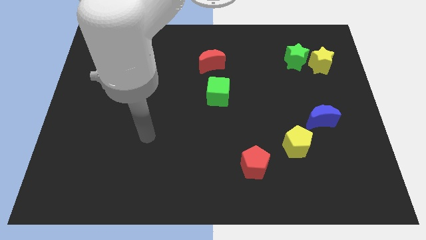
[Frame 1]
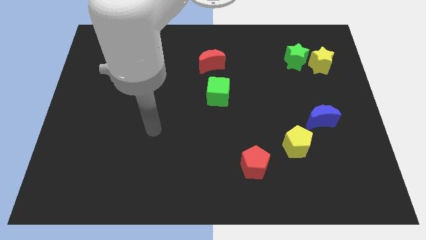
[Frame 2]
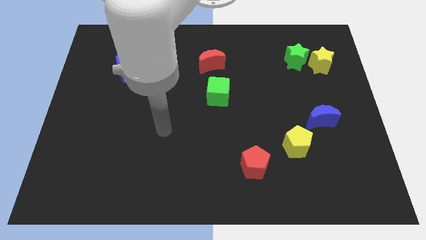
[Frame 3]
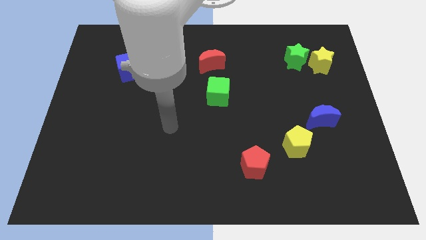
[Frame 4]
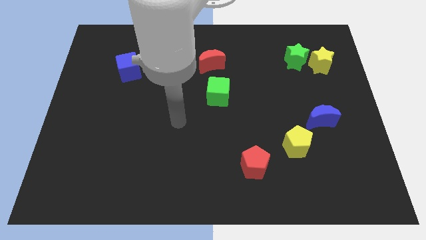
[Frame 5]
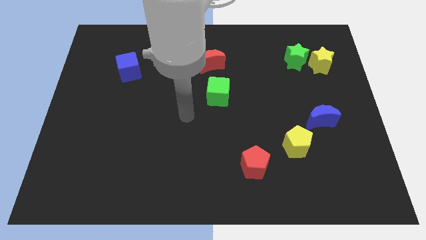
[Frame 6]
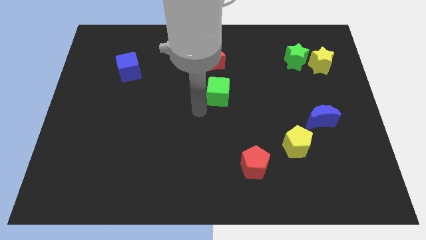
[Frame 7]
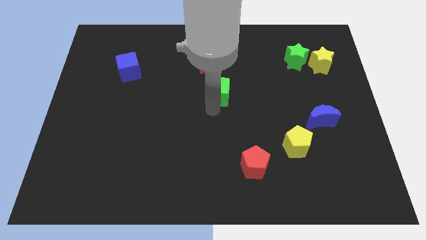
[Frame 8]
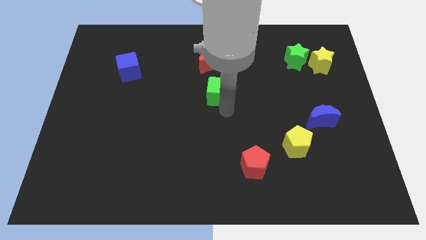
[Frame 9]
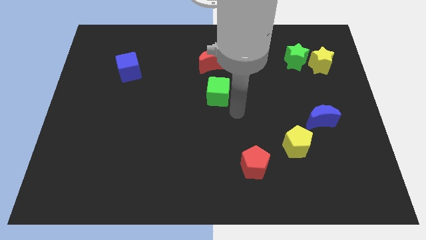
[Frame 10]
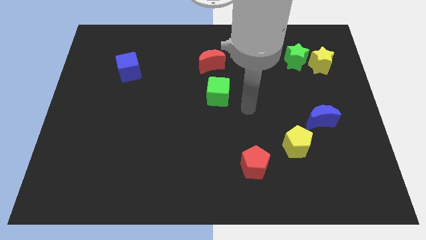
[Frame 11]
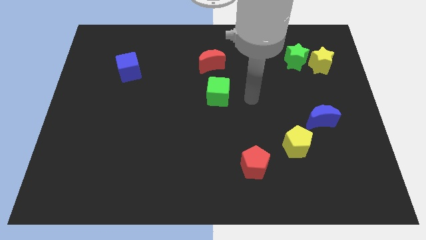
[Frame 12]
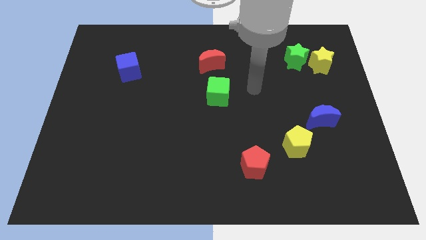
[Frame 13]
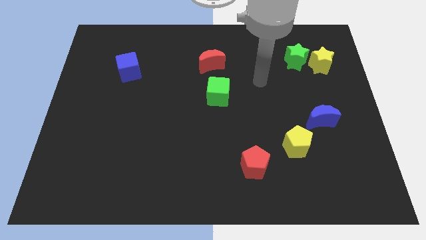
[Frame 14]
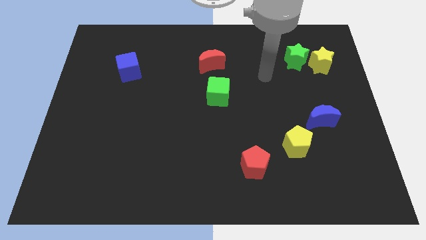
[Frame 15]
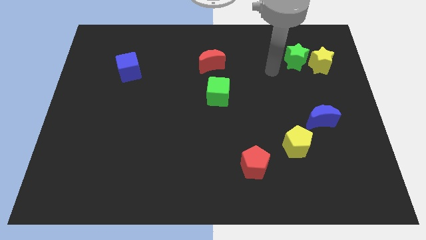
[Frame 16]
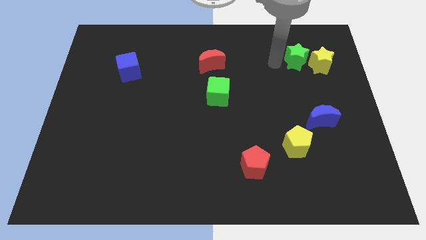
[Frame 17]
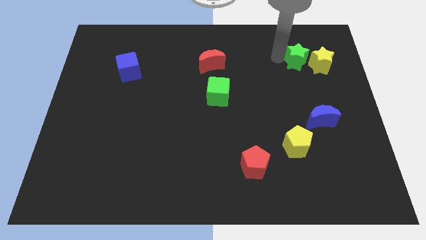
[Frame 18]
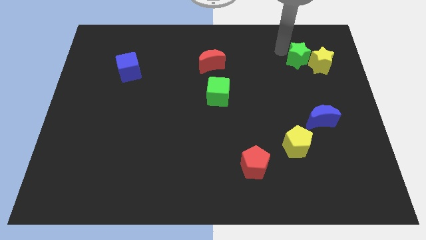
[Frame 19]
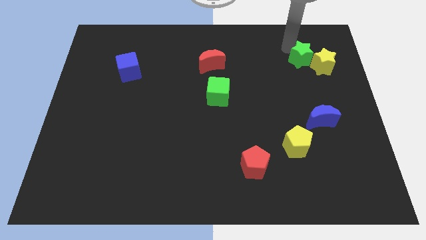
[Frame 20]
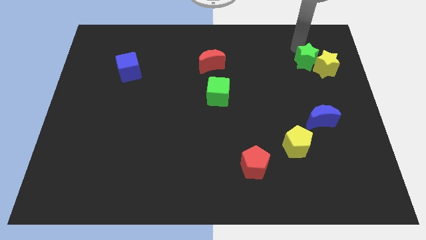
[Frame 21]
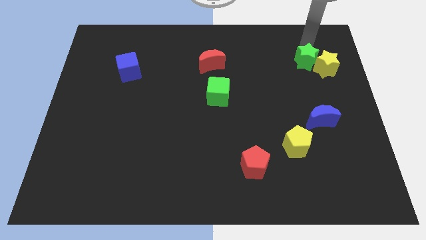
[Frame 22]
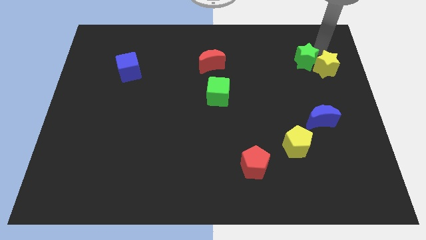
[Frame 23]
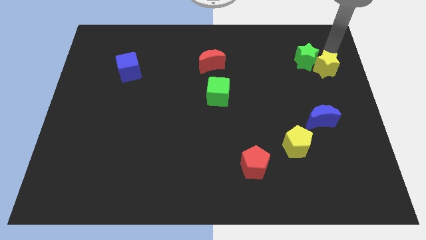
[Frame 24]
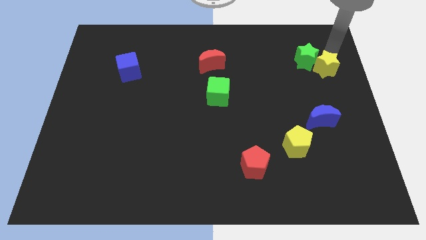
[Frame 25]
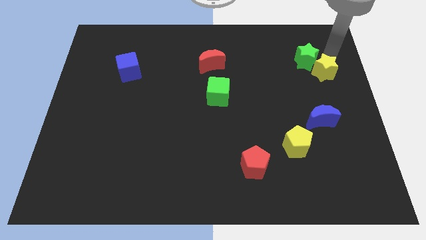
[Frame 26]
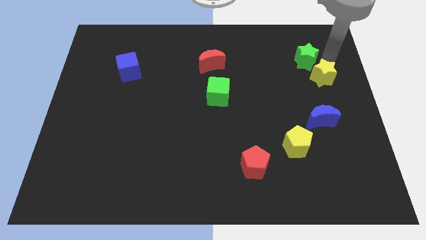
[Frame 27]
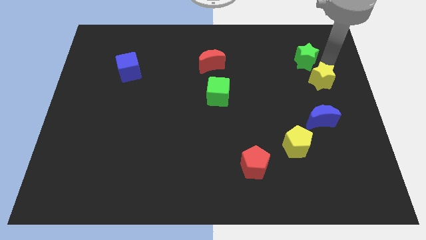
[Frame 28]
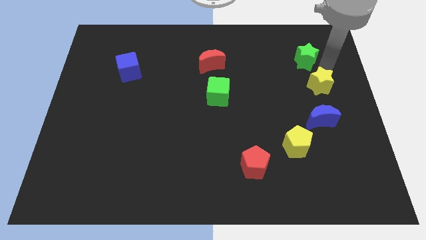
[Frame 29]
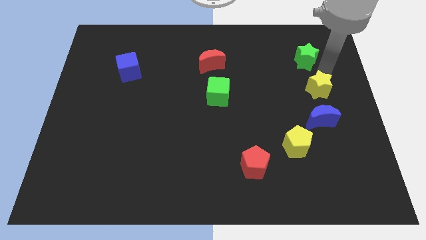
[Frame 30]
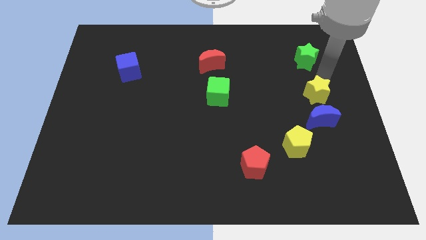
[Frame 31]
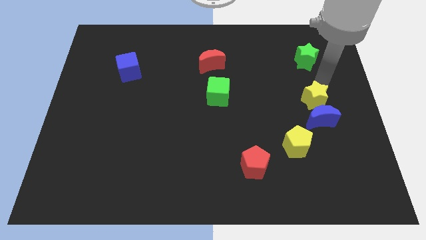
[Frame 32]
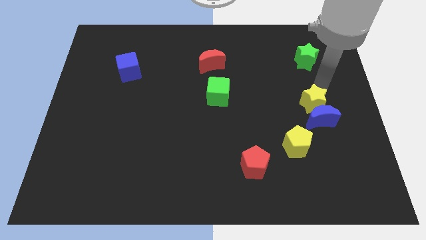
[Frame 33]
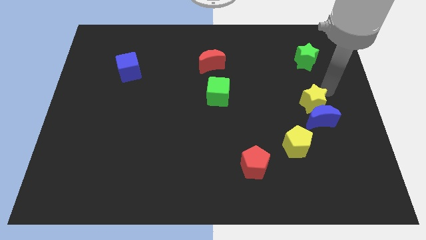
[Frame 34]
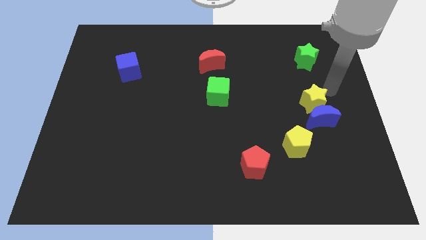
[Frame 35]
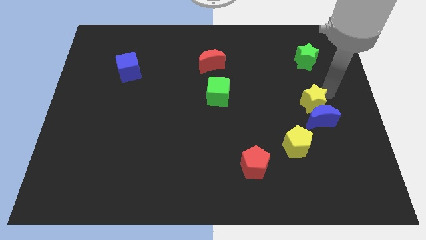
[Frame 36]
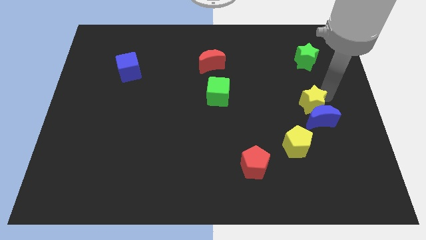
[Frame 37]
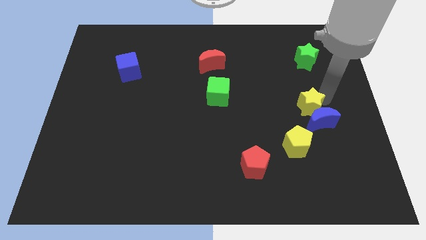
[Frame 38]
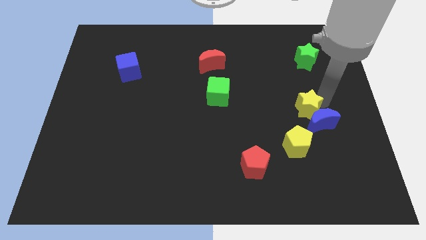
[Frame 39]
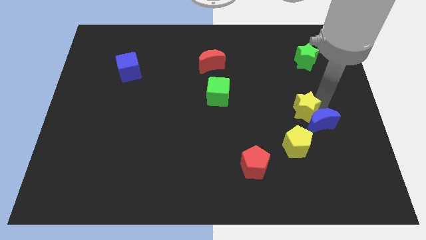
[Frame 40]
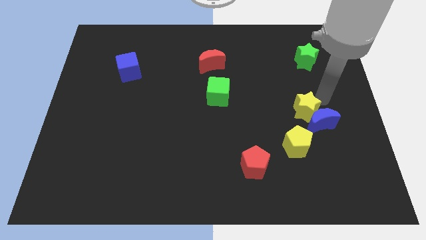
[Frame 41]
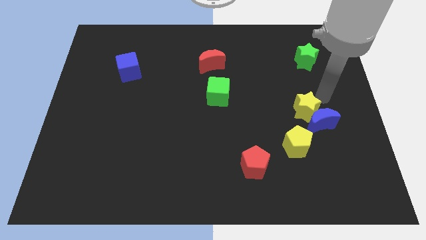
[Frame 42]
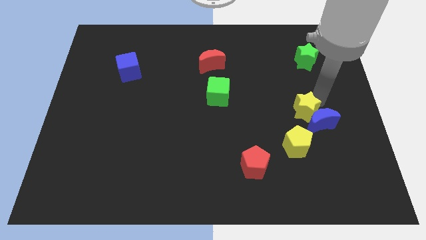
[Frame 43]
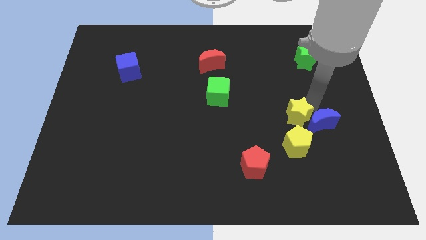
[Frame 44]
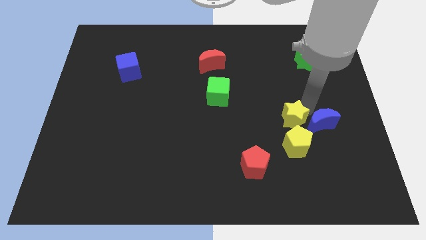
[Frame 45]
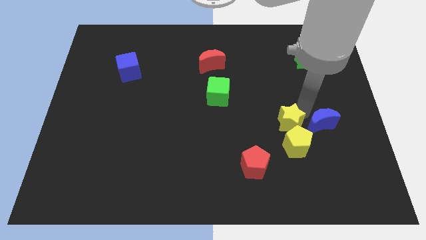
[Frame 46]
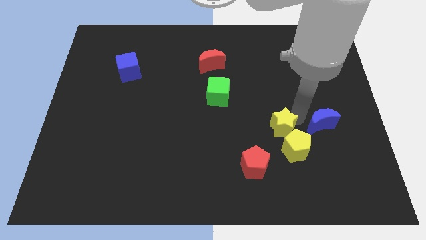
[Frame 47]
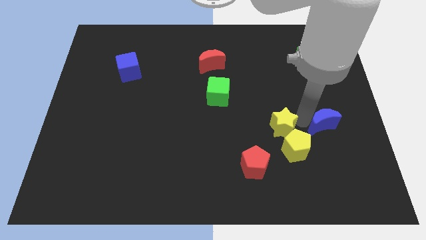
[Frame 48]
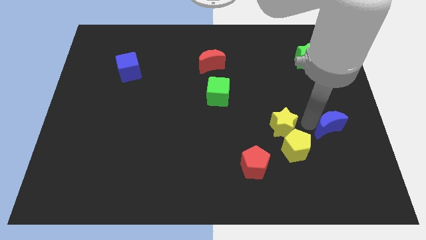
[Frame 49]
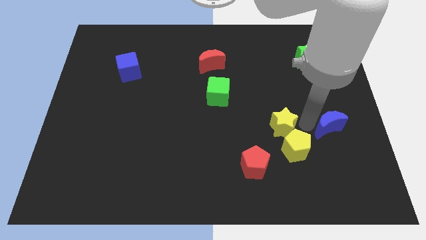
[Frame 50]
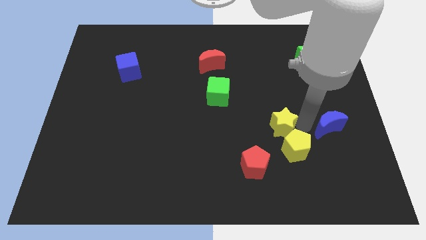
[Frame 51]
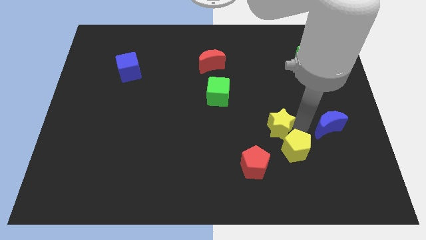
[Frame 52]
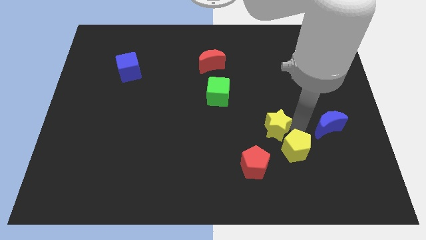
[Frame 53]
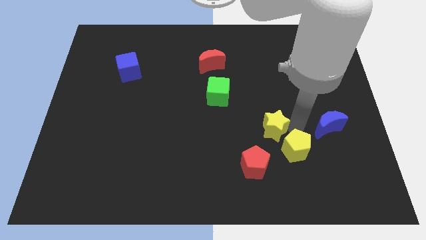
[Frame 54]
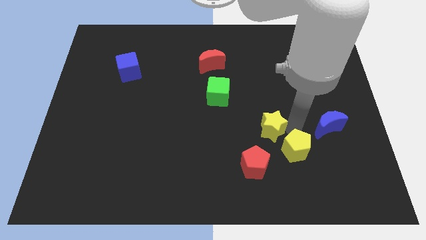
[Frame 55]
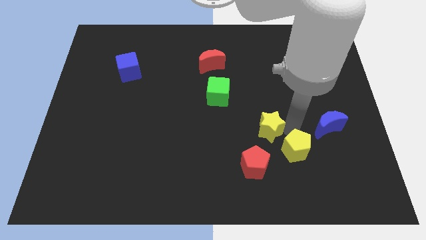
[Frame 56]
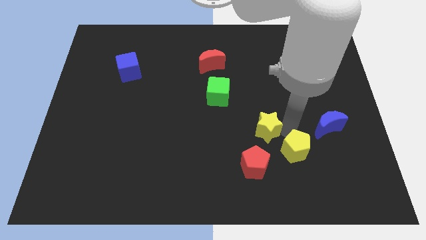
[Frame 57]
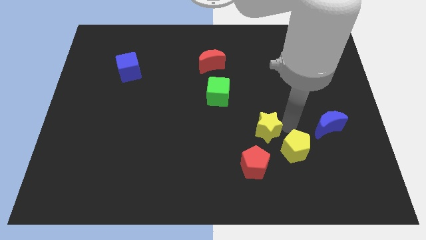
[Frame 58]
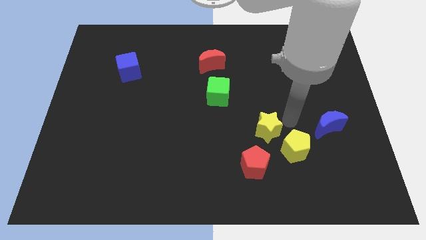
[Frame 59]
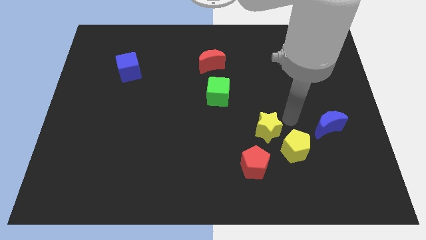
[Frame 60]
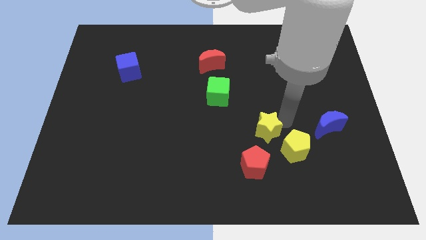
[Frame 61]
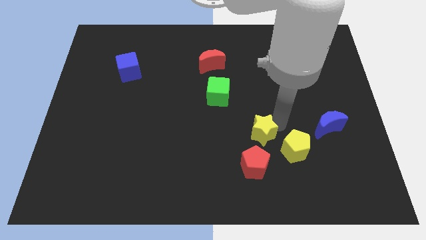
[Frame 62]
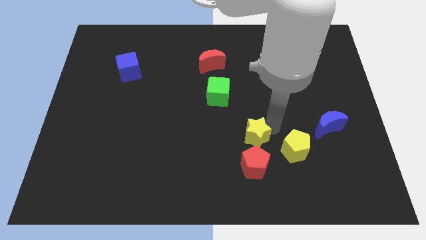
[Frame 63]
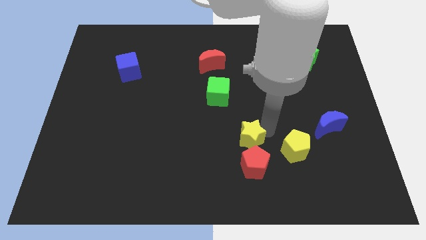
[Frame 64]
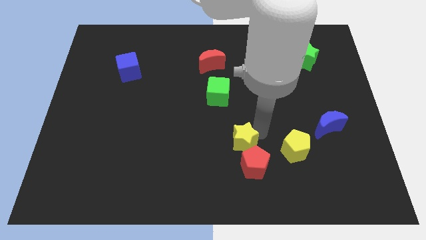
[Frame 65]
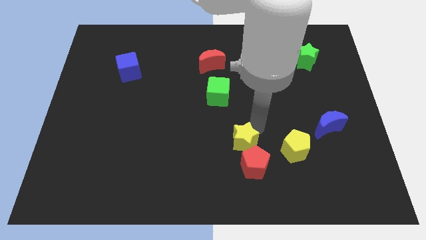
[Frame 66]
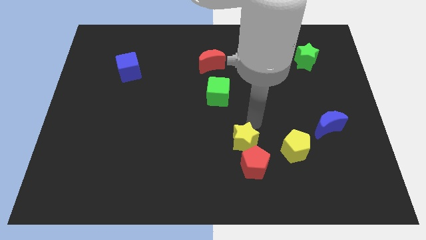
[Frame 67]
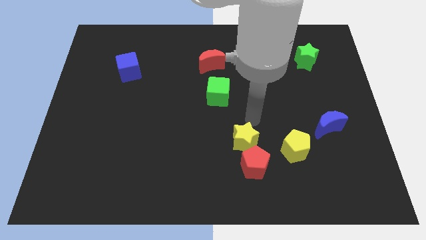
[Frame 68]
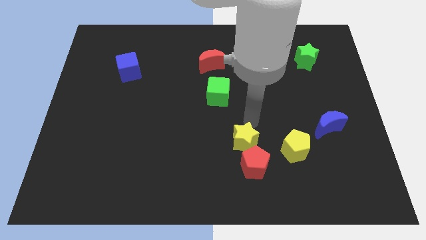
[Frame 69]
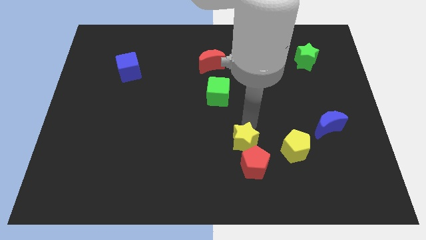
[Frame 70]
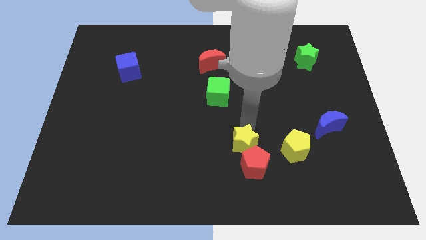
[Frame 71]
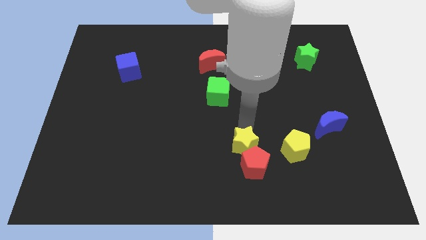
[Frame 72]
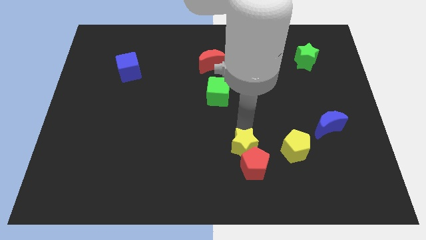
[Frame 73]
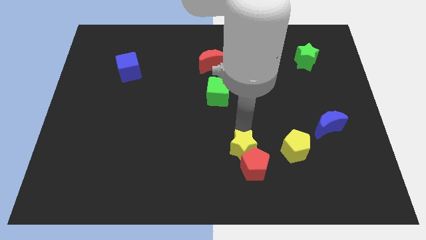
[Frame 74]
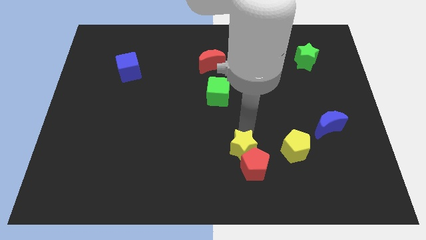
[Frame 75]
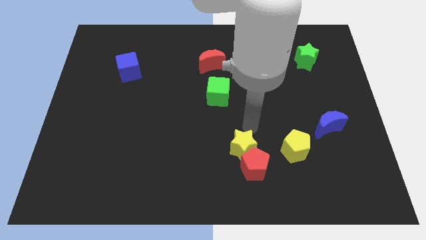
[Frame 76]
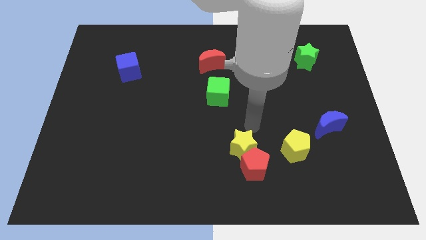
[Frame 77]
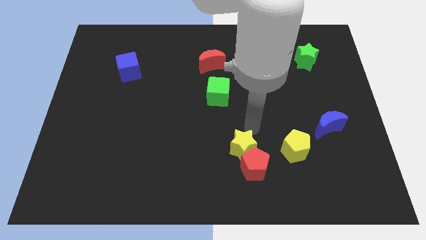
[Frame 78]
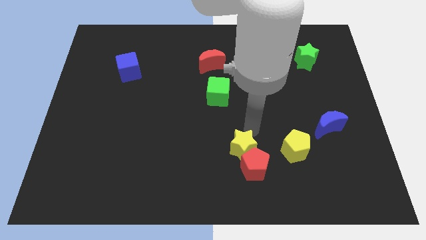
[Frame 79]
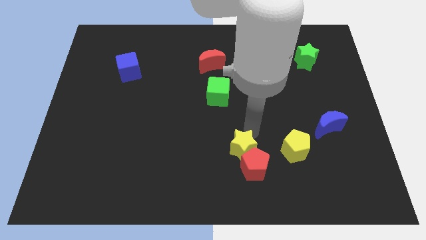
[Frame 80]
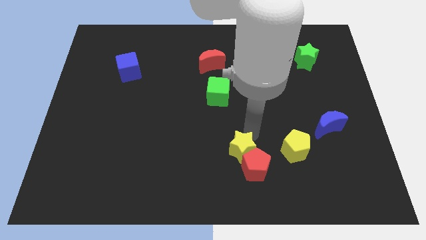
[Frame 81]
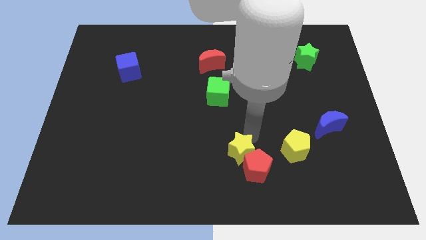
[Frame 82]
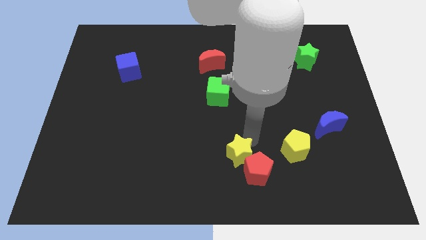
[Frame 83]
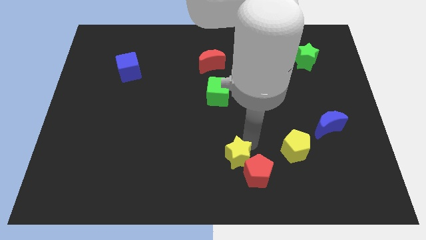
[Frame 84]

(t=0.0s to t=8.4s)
slide the yellow star to the bottom
